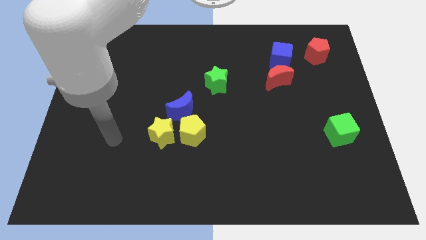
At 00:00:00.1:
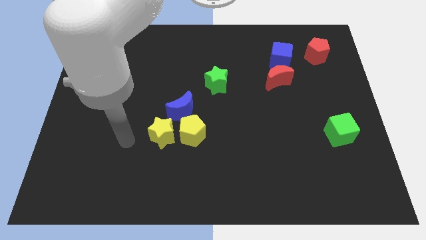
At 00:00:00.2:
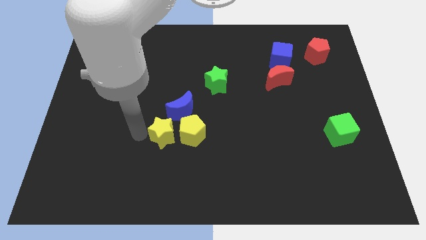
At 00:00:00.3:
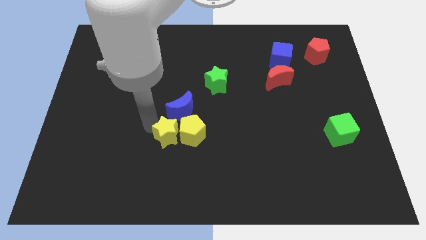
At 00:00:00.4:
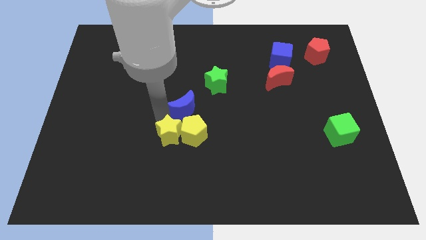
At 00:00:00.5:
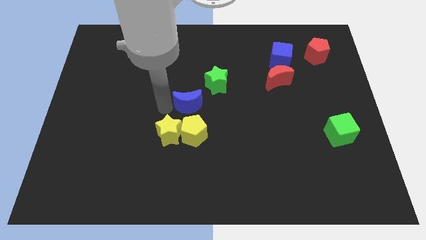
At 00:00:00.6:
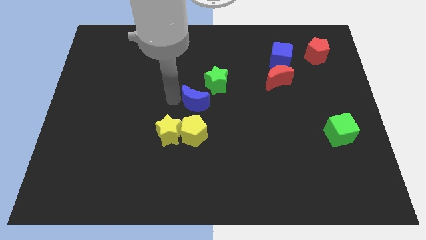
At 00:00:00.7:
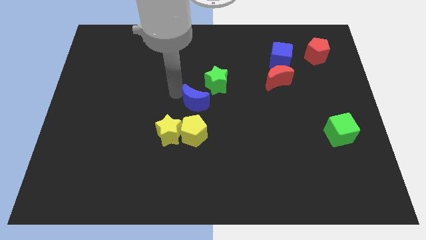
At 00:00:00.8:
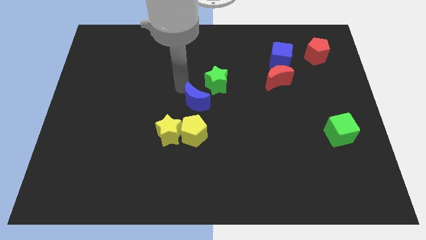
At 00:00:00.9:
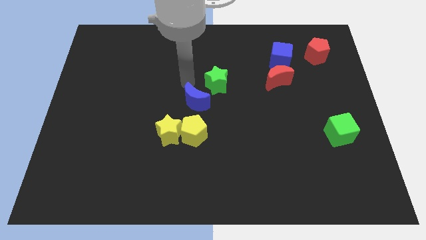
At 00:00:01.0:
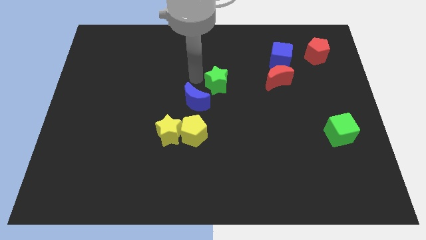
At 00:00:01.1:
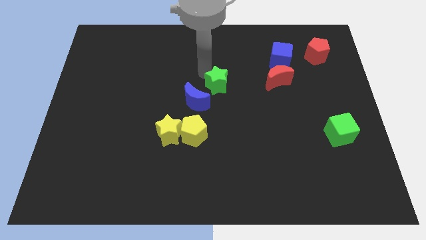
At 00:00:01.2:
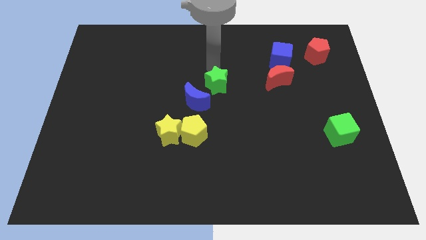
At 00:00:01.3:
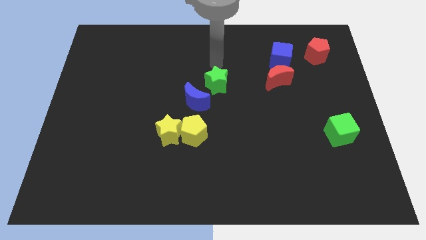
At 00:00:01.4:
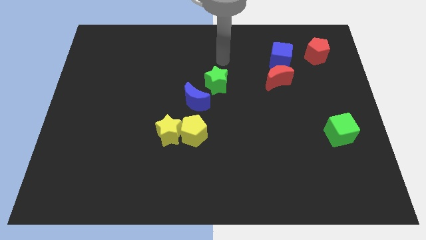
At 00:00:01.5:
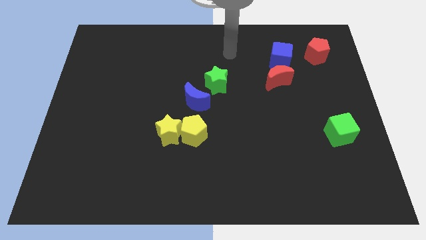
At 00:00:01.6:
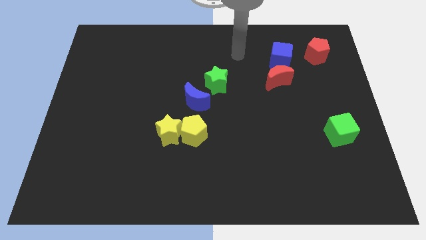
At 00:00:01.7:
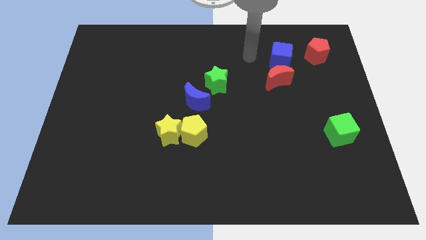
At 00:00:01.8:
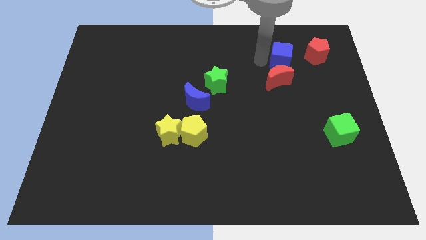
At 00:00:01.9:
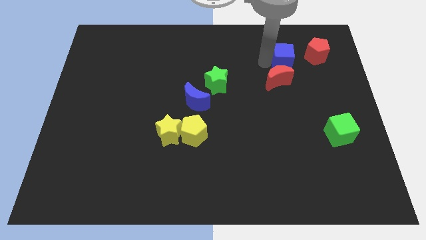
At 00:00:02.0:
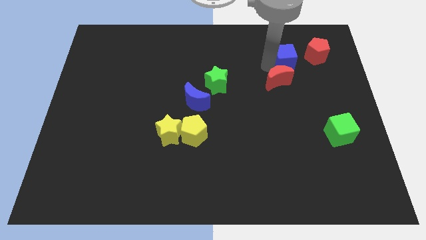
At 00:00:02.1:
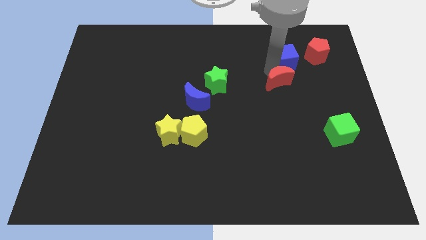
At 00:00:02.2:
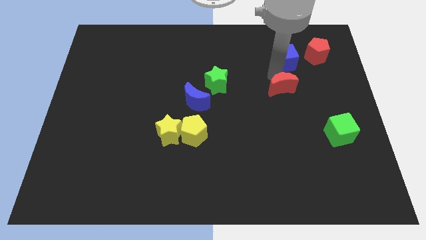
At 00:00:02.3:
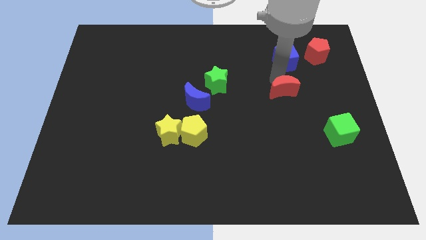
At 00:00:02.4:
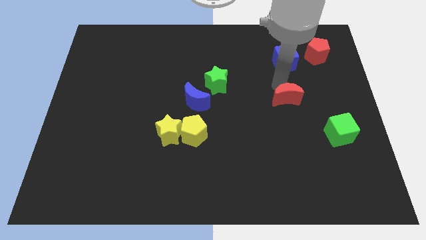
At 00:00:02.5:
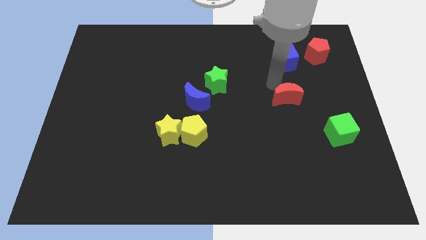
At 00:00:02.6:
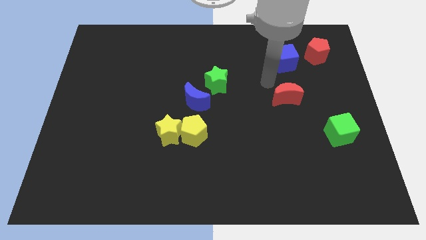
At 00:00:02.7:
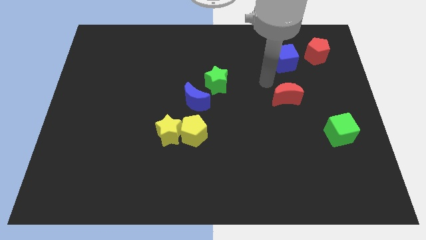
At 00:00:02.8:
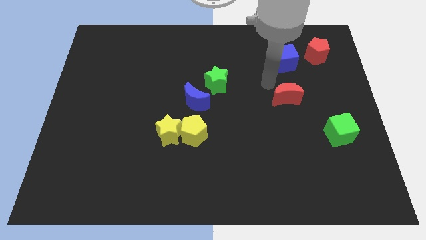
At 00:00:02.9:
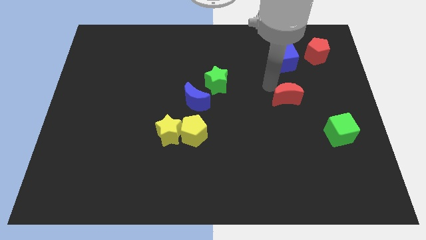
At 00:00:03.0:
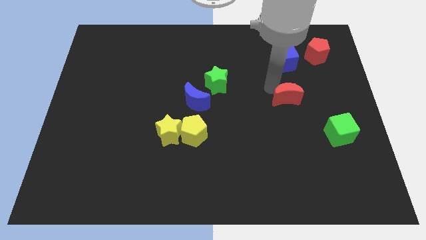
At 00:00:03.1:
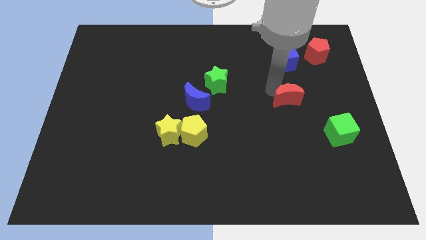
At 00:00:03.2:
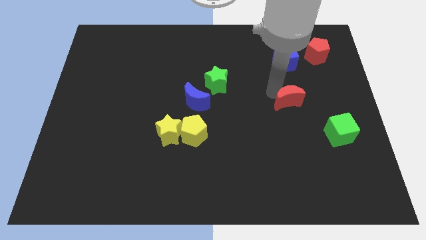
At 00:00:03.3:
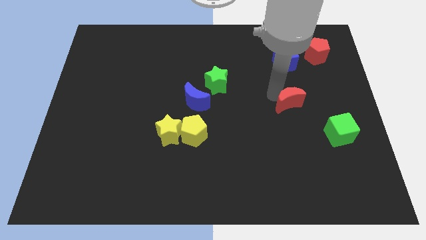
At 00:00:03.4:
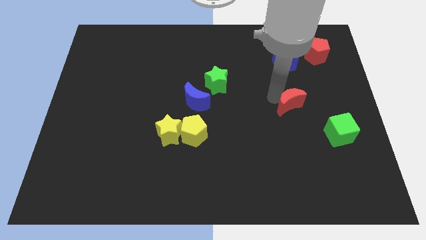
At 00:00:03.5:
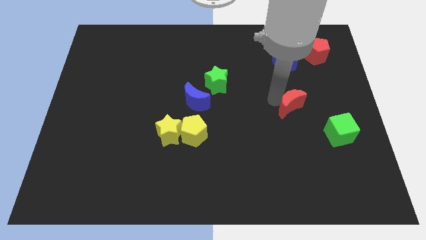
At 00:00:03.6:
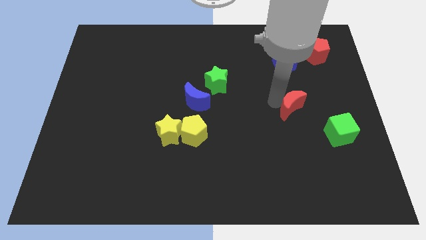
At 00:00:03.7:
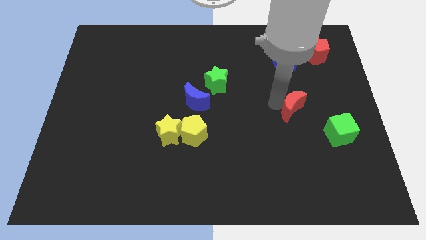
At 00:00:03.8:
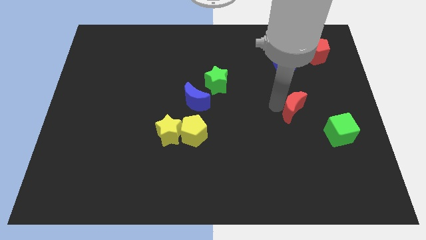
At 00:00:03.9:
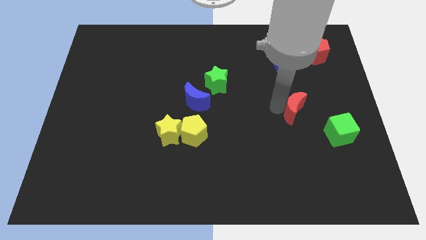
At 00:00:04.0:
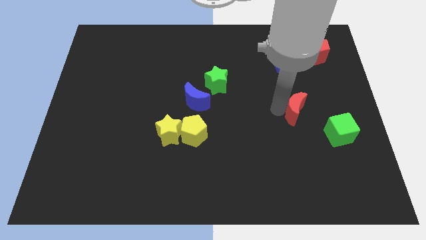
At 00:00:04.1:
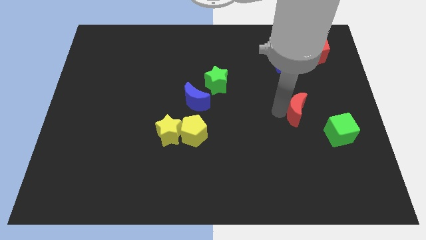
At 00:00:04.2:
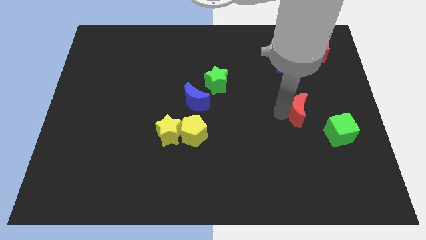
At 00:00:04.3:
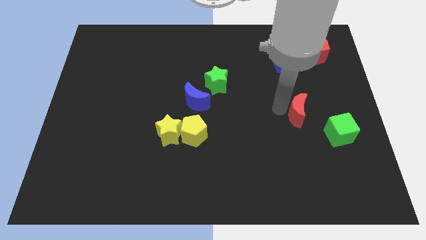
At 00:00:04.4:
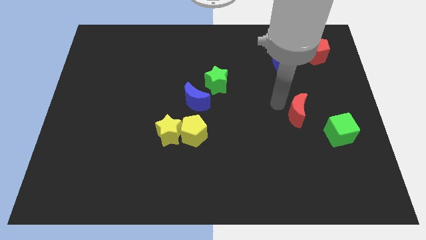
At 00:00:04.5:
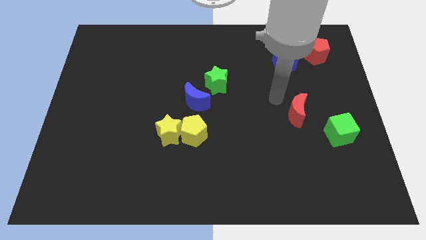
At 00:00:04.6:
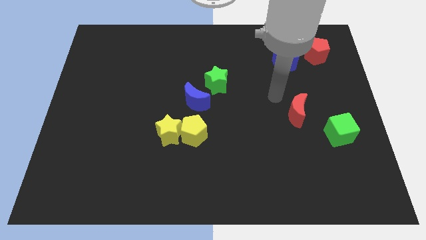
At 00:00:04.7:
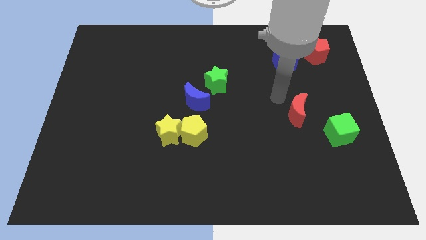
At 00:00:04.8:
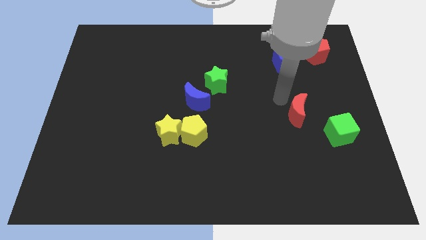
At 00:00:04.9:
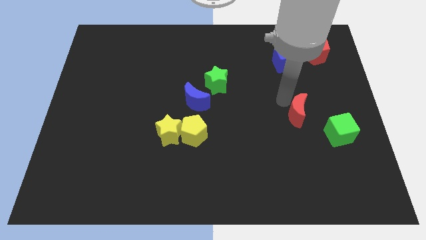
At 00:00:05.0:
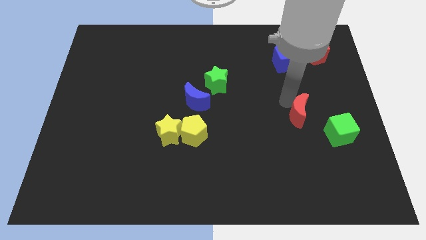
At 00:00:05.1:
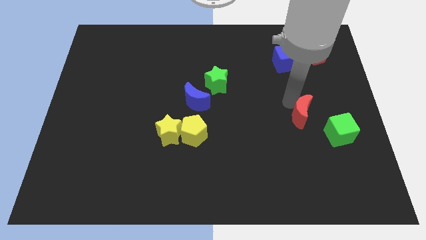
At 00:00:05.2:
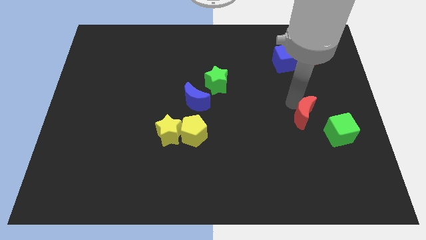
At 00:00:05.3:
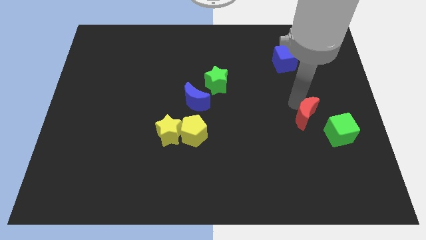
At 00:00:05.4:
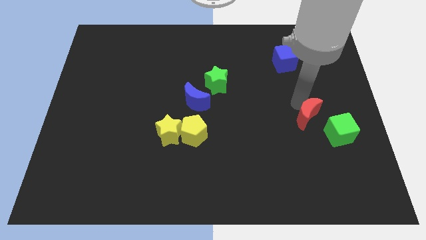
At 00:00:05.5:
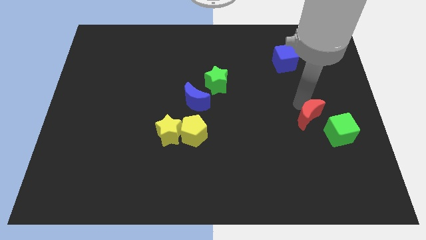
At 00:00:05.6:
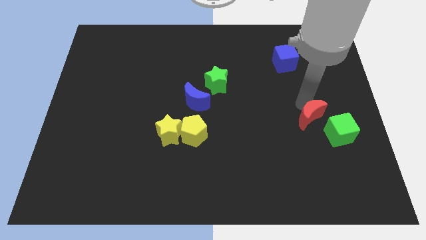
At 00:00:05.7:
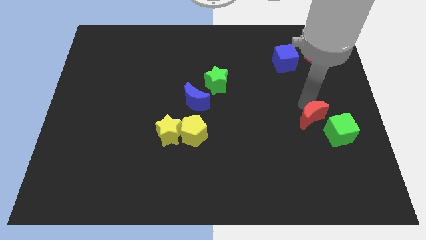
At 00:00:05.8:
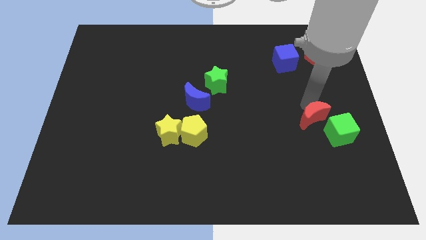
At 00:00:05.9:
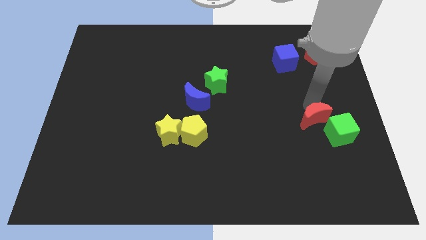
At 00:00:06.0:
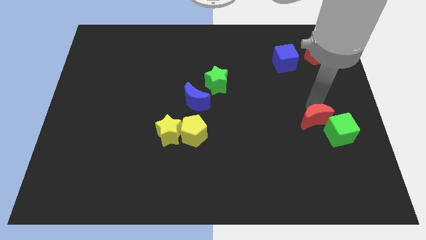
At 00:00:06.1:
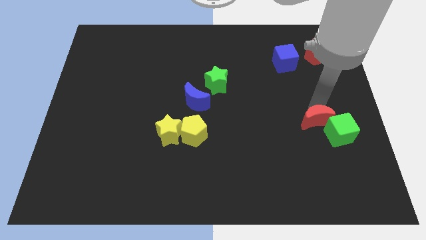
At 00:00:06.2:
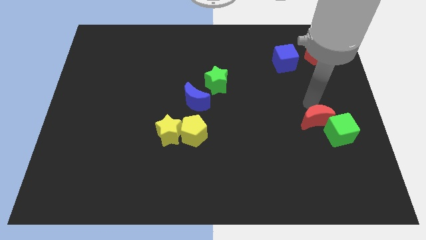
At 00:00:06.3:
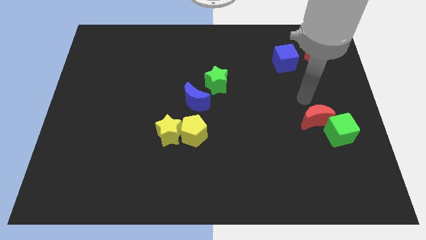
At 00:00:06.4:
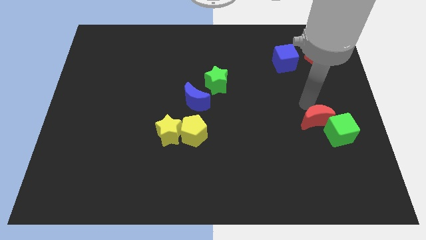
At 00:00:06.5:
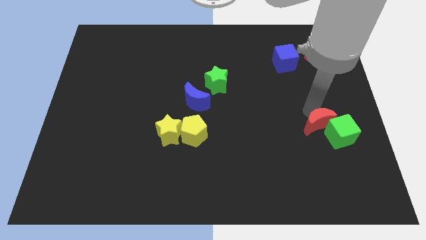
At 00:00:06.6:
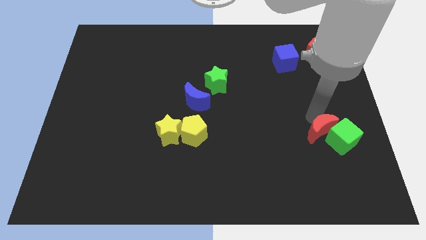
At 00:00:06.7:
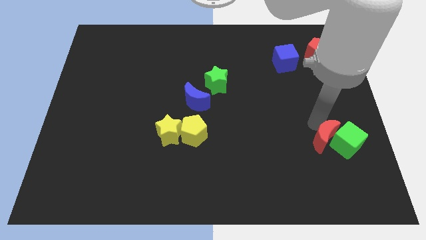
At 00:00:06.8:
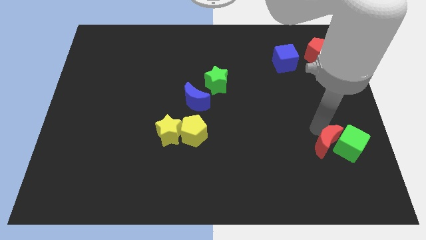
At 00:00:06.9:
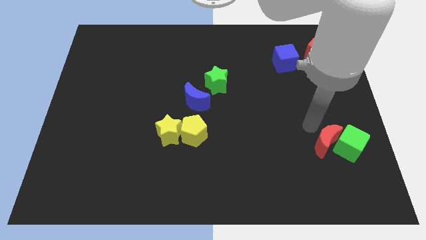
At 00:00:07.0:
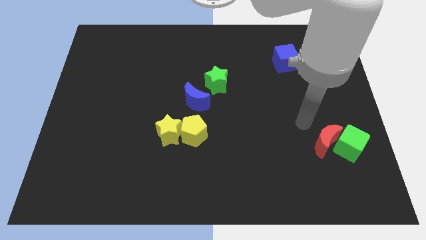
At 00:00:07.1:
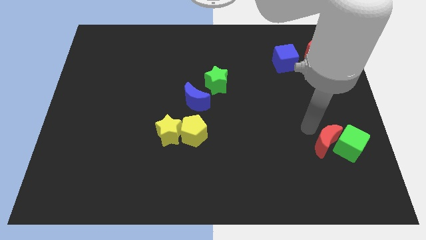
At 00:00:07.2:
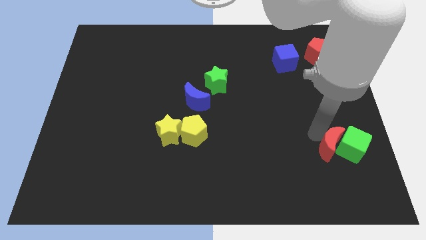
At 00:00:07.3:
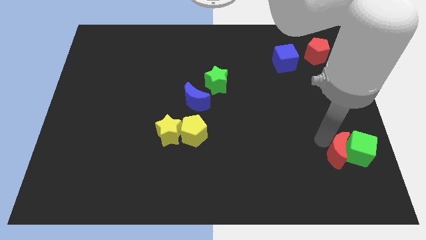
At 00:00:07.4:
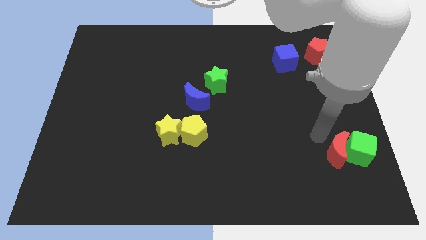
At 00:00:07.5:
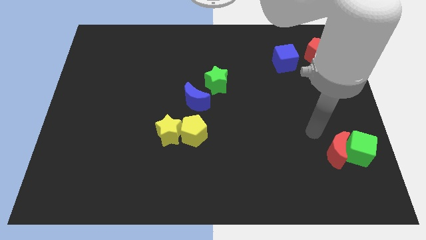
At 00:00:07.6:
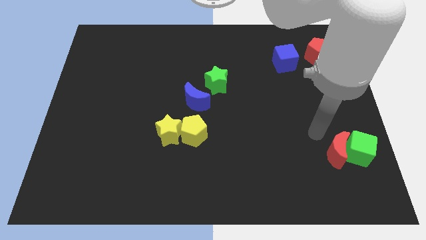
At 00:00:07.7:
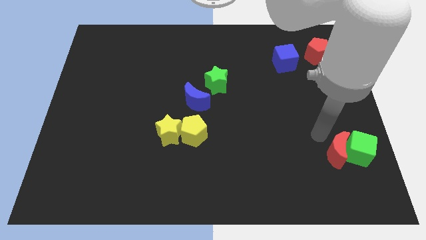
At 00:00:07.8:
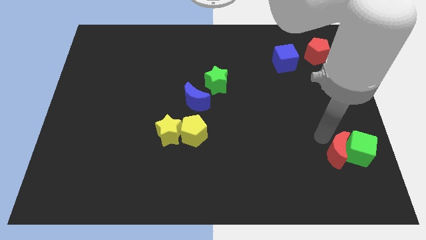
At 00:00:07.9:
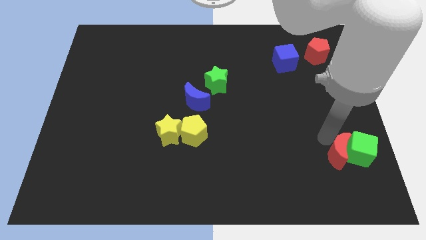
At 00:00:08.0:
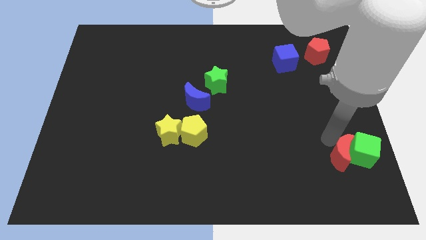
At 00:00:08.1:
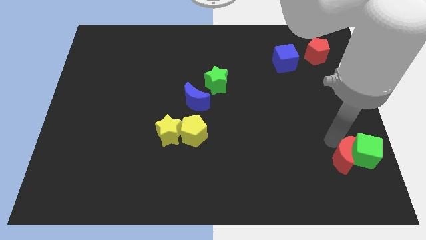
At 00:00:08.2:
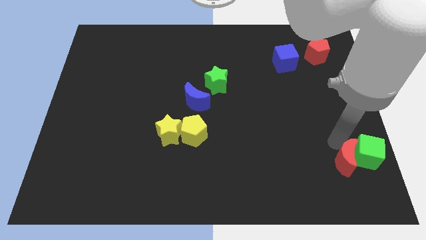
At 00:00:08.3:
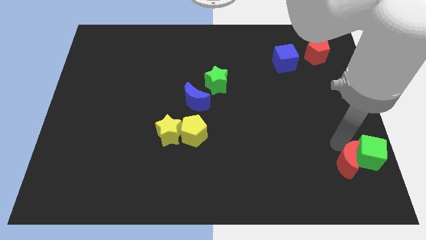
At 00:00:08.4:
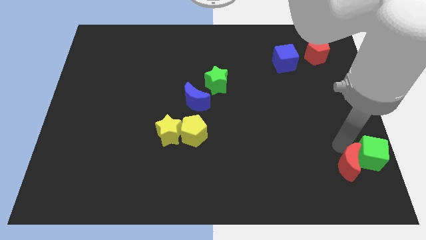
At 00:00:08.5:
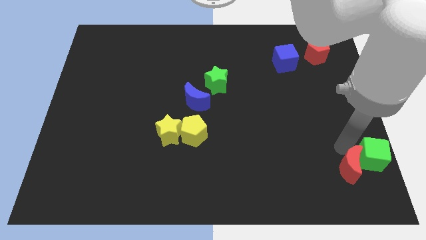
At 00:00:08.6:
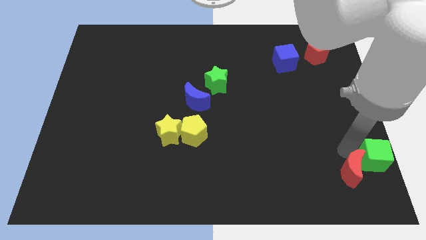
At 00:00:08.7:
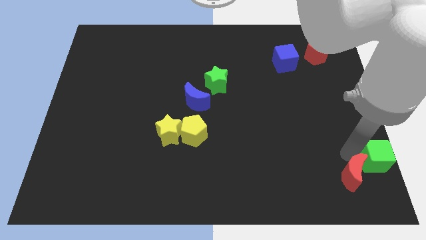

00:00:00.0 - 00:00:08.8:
push the red moon to the lower right corner
